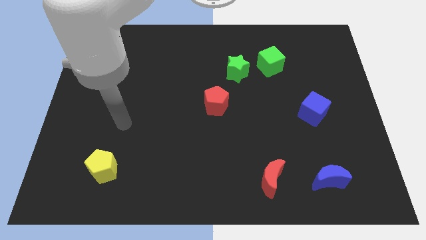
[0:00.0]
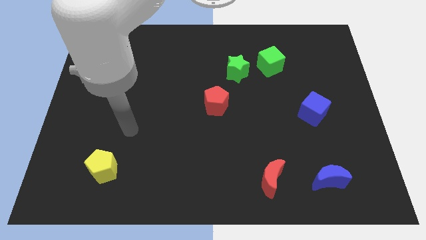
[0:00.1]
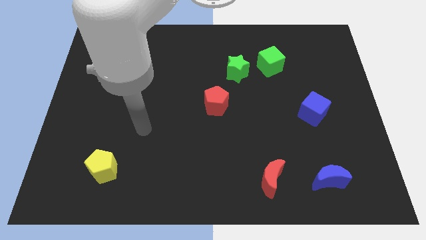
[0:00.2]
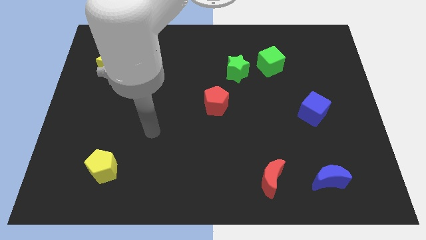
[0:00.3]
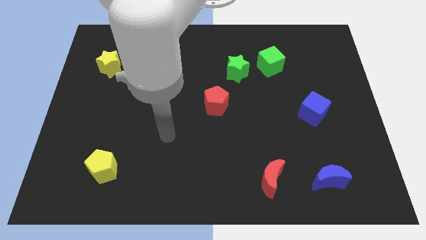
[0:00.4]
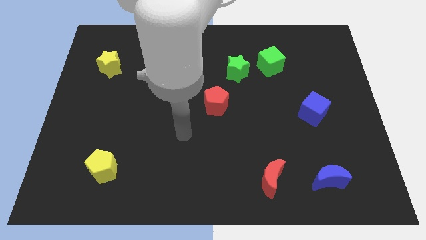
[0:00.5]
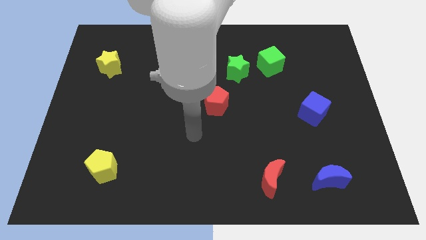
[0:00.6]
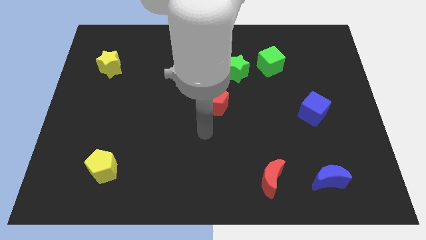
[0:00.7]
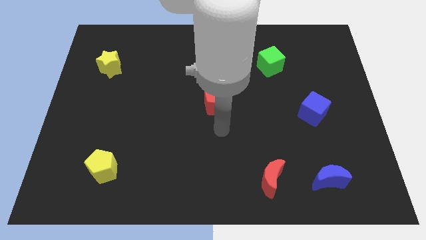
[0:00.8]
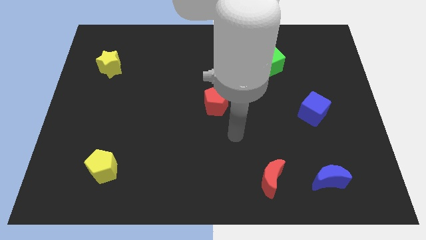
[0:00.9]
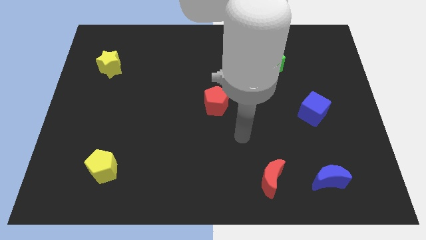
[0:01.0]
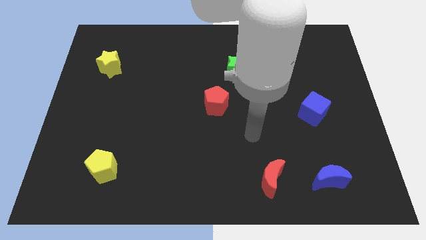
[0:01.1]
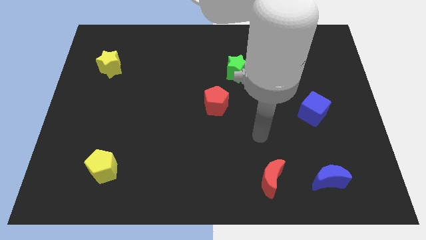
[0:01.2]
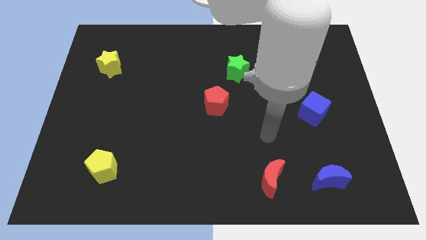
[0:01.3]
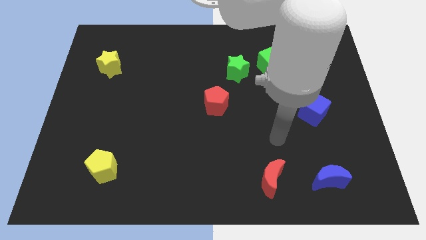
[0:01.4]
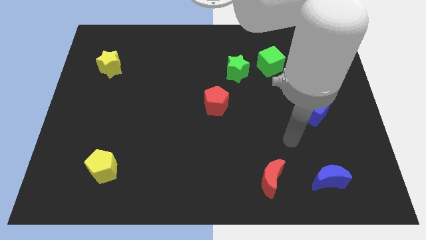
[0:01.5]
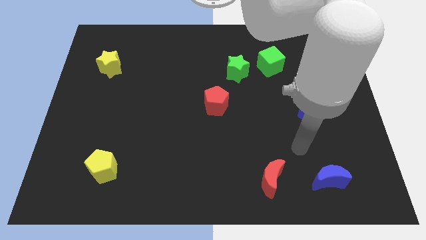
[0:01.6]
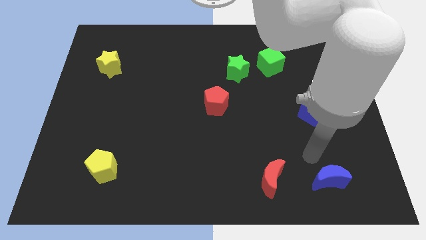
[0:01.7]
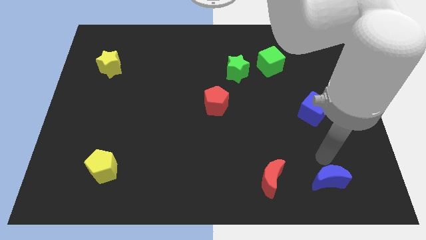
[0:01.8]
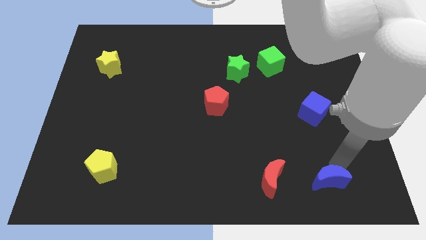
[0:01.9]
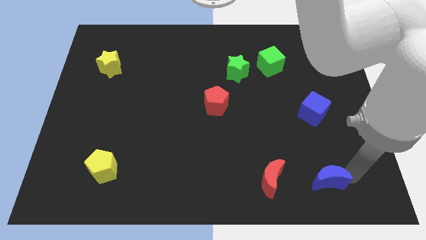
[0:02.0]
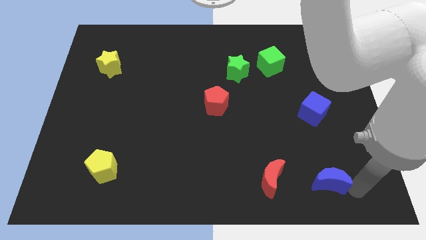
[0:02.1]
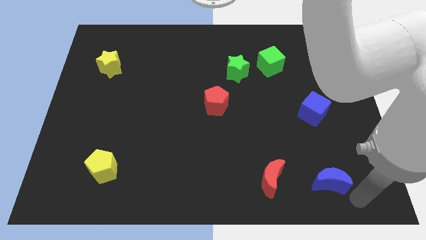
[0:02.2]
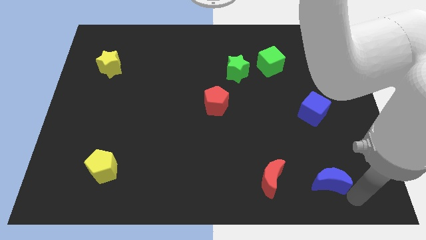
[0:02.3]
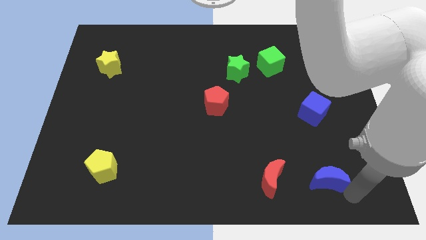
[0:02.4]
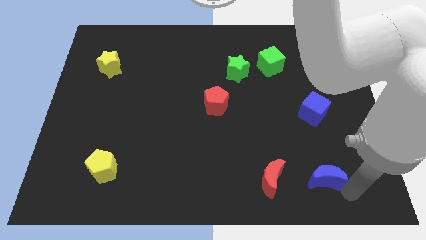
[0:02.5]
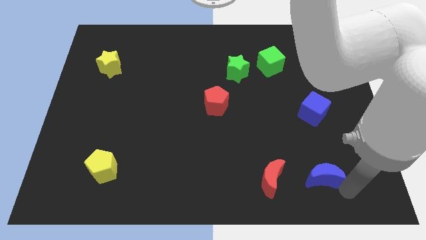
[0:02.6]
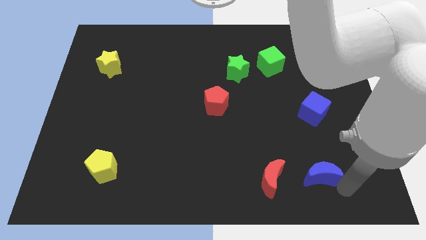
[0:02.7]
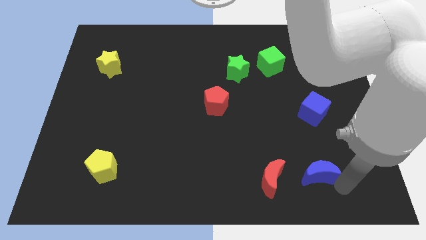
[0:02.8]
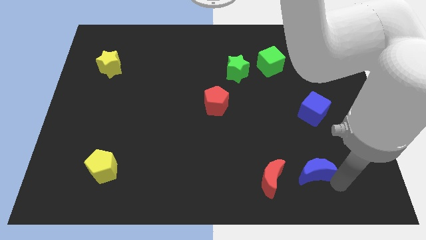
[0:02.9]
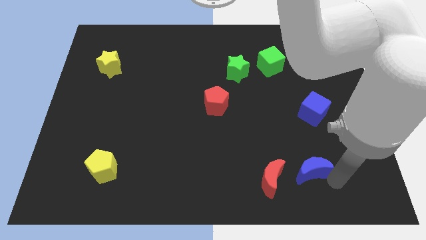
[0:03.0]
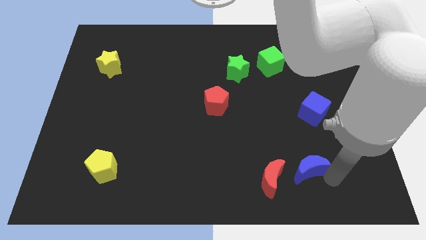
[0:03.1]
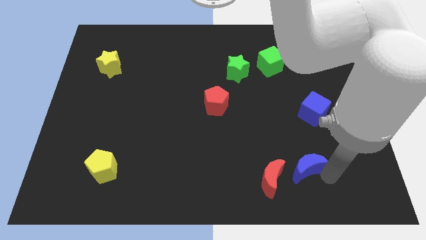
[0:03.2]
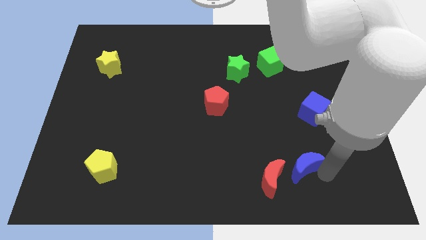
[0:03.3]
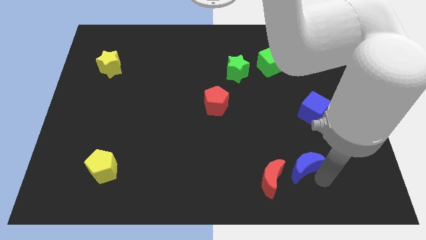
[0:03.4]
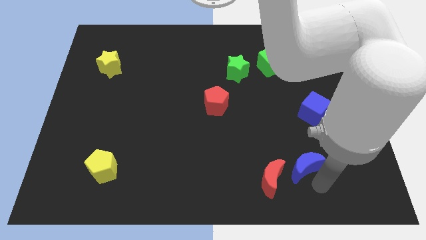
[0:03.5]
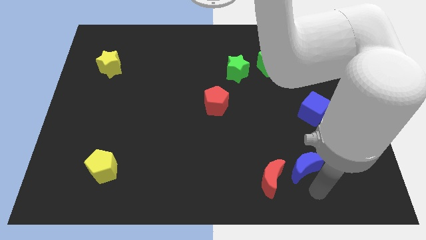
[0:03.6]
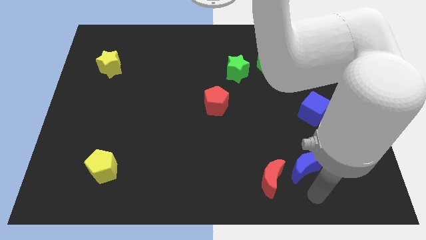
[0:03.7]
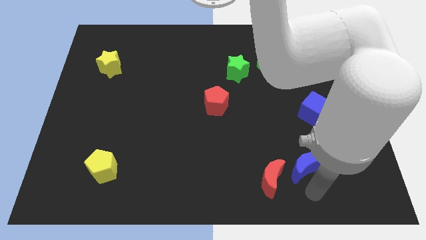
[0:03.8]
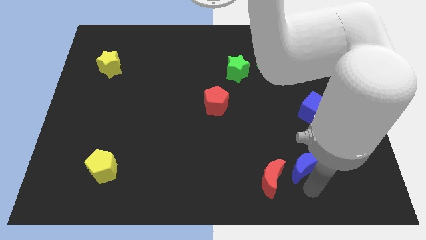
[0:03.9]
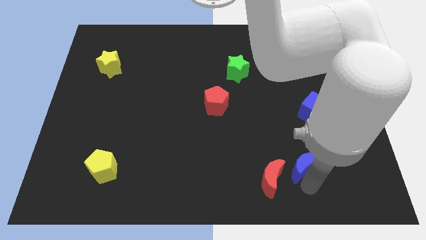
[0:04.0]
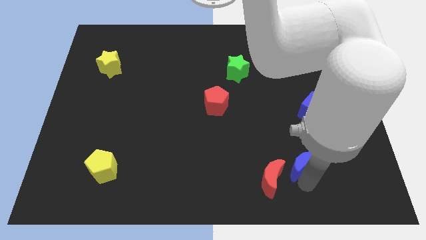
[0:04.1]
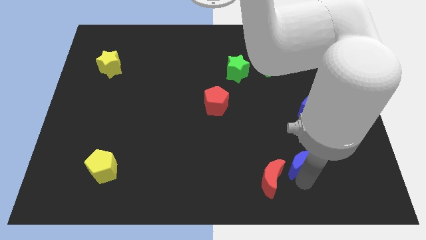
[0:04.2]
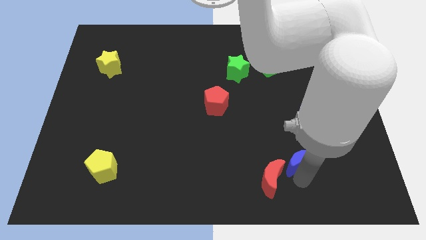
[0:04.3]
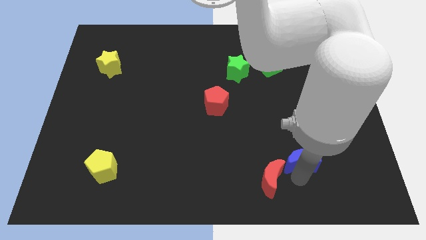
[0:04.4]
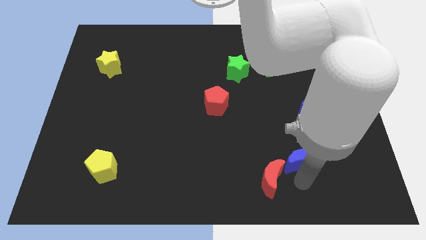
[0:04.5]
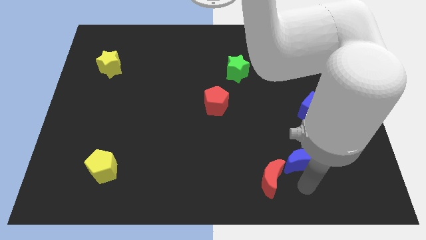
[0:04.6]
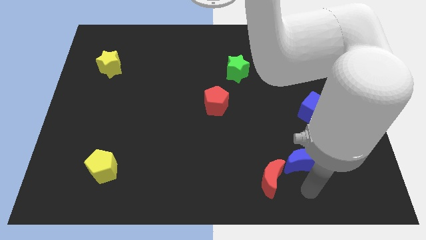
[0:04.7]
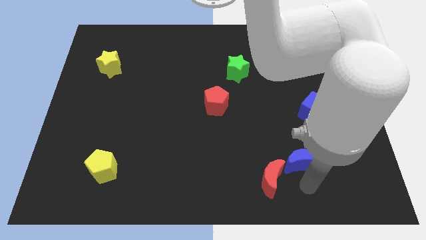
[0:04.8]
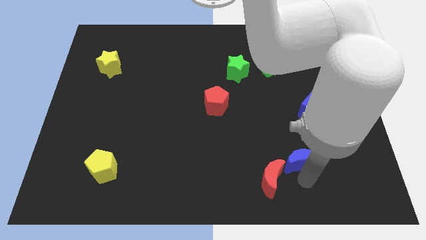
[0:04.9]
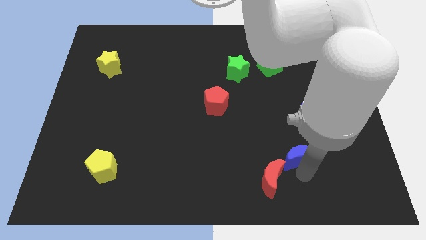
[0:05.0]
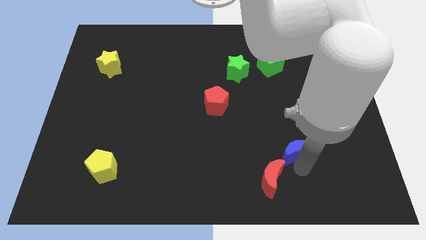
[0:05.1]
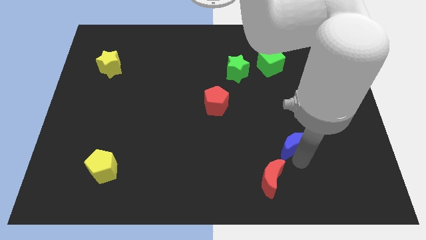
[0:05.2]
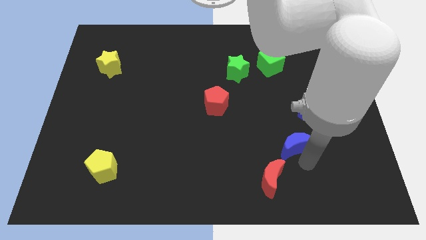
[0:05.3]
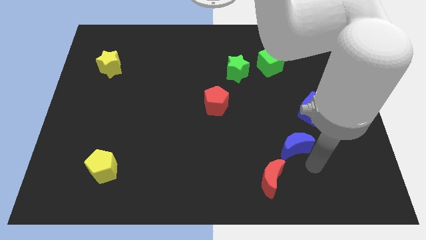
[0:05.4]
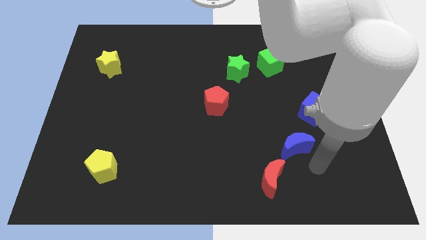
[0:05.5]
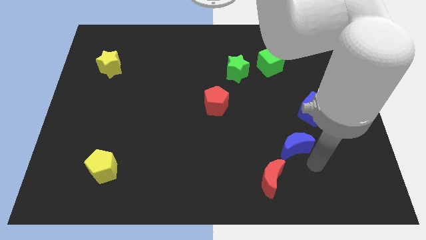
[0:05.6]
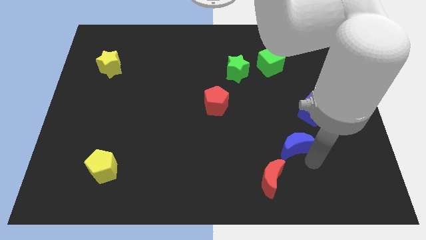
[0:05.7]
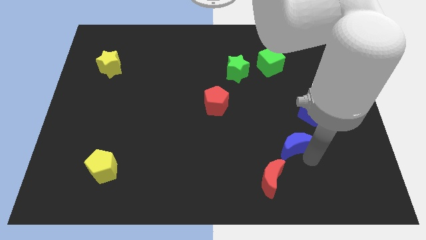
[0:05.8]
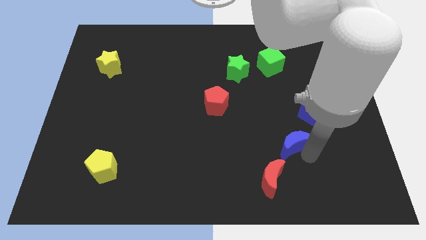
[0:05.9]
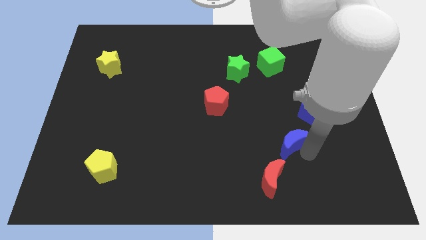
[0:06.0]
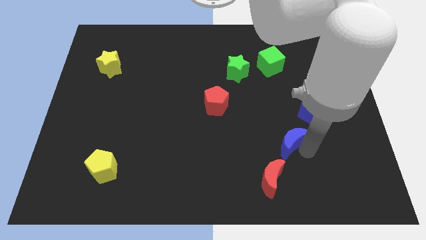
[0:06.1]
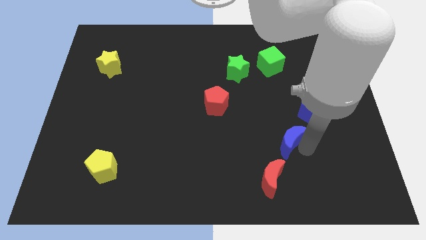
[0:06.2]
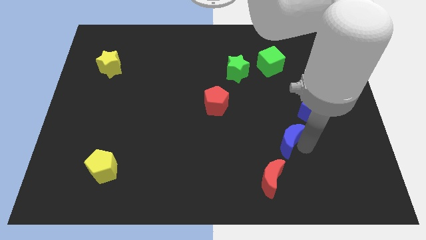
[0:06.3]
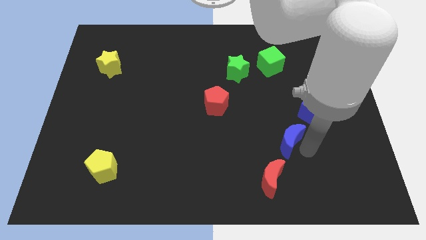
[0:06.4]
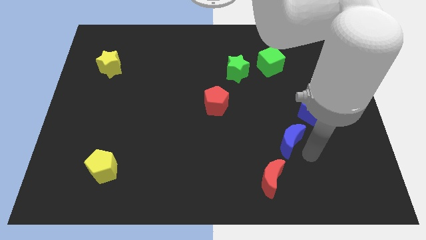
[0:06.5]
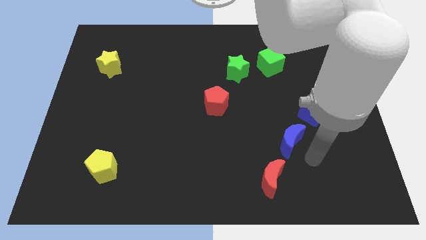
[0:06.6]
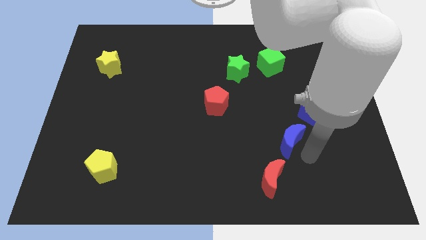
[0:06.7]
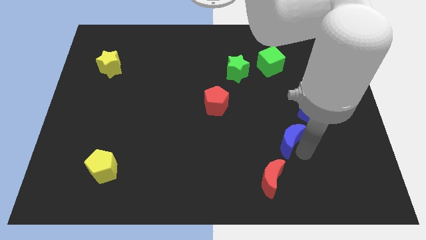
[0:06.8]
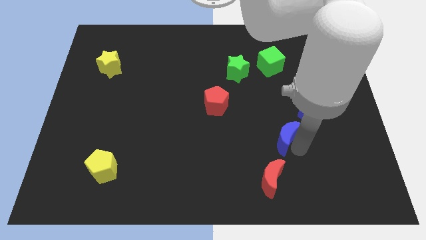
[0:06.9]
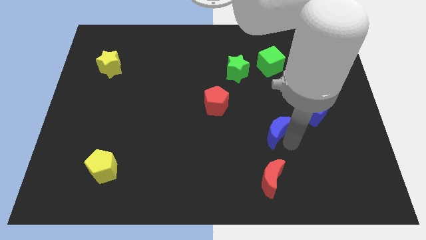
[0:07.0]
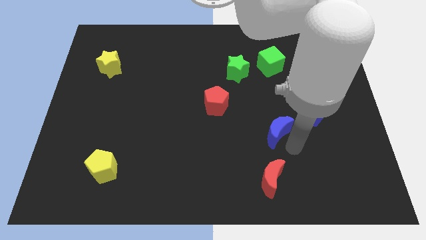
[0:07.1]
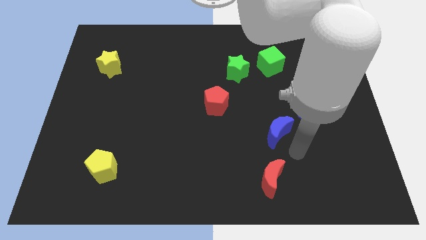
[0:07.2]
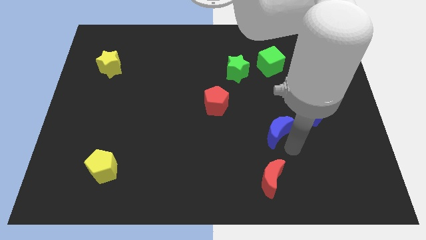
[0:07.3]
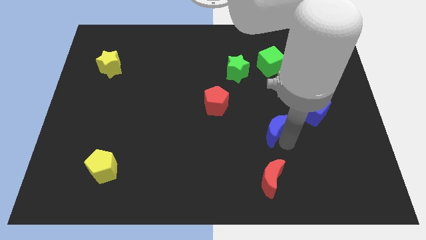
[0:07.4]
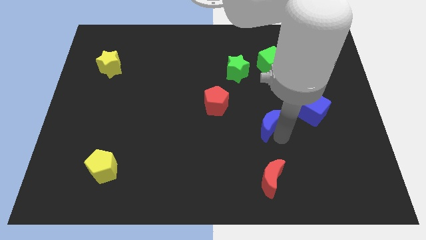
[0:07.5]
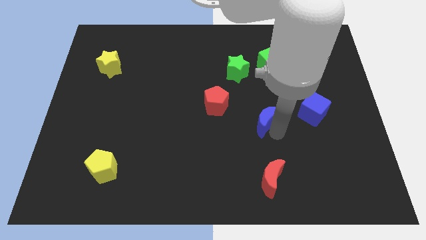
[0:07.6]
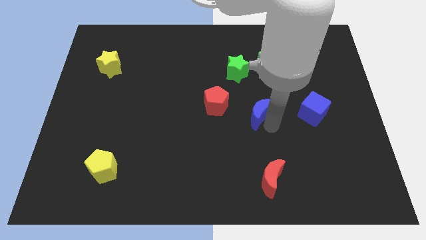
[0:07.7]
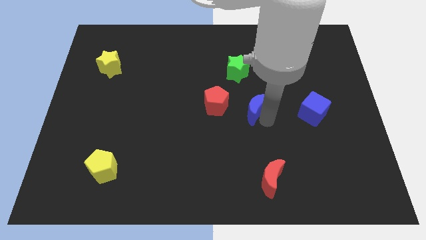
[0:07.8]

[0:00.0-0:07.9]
put the blue moon to the bottom side of the green star
